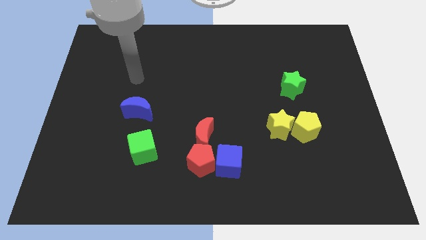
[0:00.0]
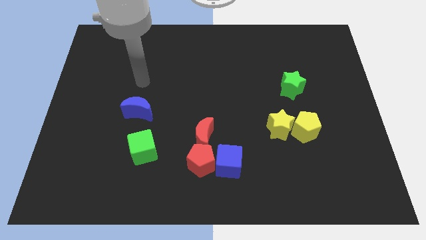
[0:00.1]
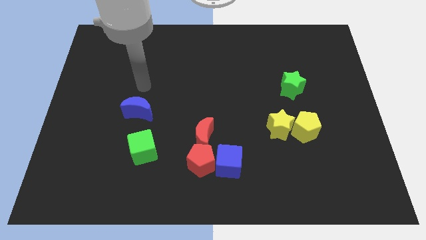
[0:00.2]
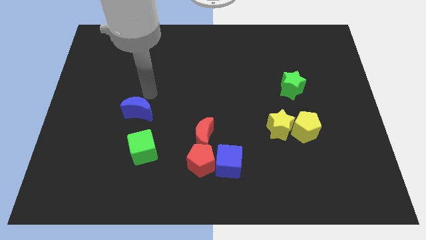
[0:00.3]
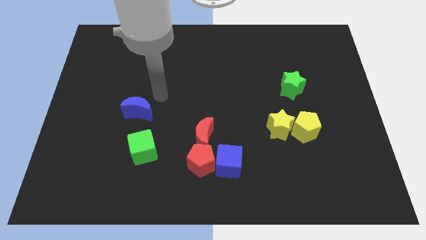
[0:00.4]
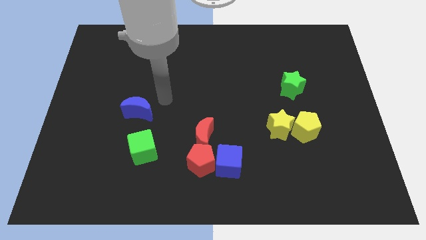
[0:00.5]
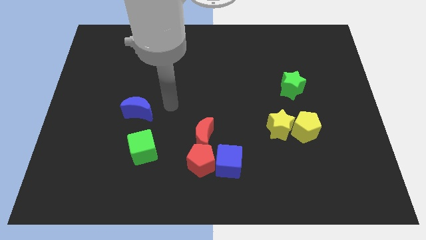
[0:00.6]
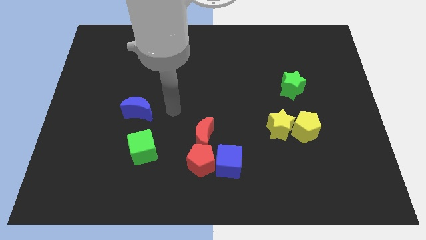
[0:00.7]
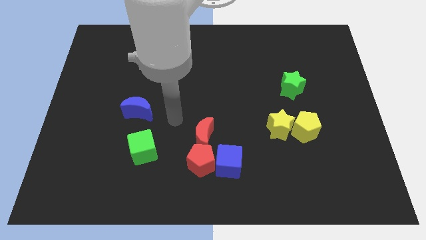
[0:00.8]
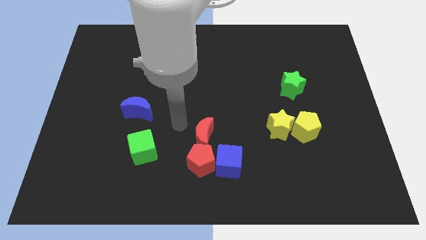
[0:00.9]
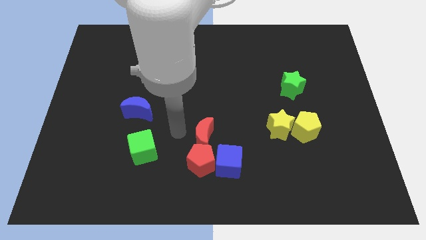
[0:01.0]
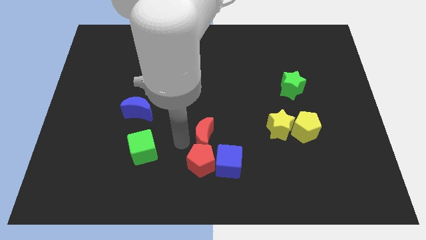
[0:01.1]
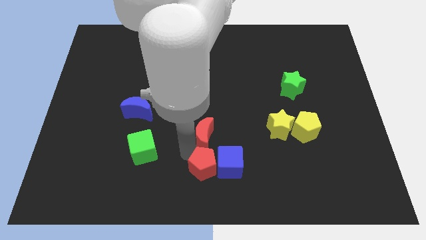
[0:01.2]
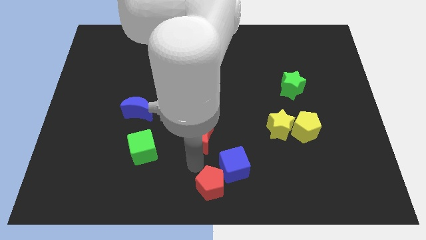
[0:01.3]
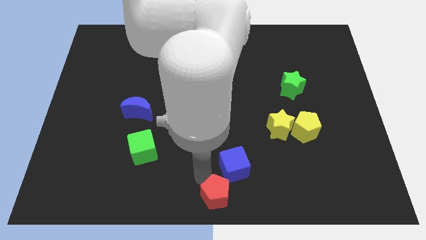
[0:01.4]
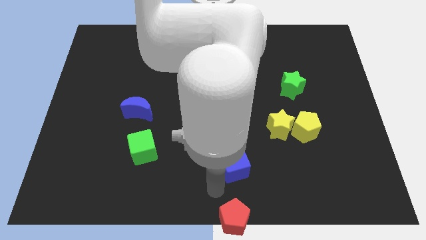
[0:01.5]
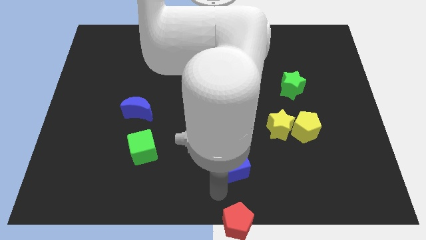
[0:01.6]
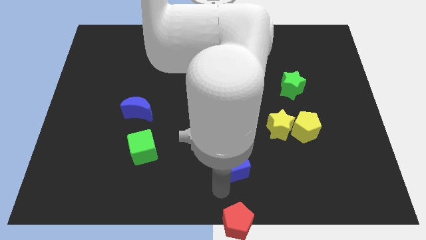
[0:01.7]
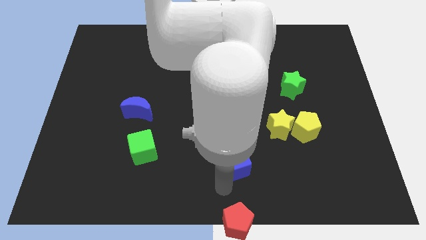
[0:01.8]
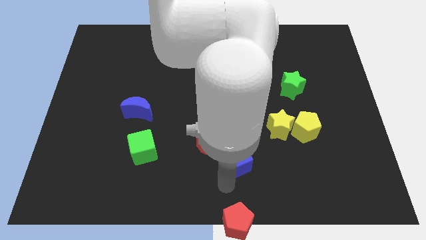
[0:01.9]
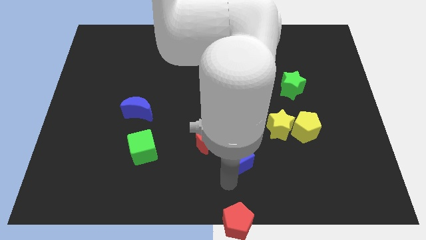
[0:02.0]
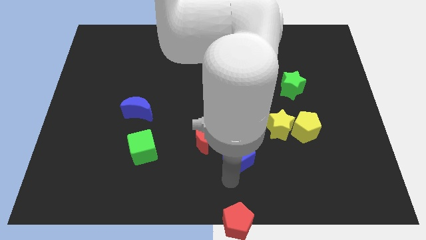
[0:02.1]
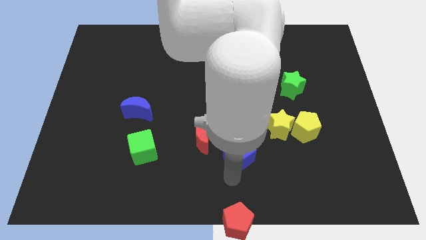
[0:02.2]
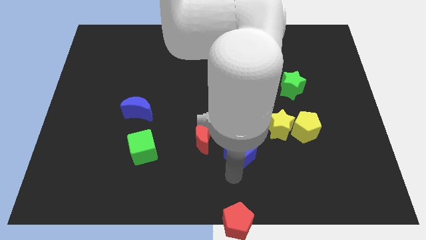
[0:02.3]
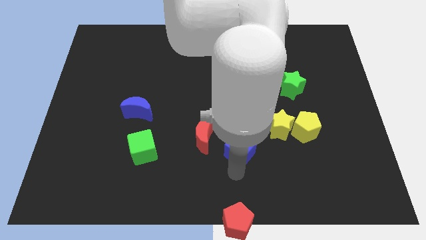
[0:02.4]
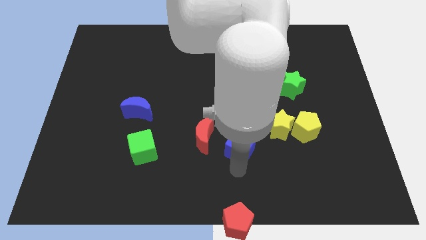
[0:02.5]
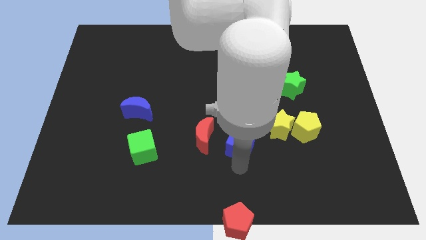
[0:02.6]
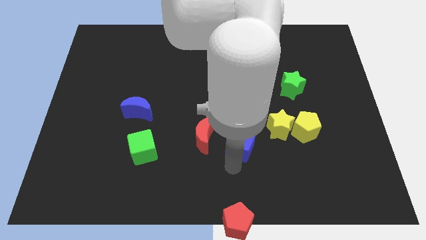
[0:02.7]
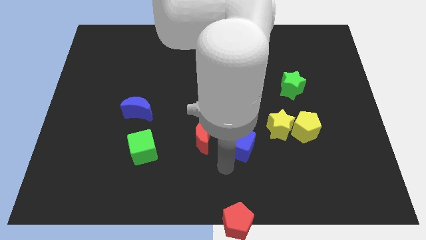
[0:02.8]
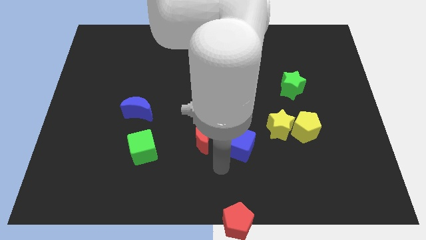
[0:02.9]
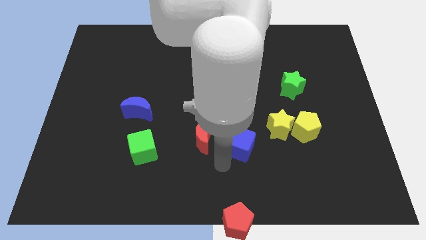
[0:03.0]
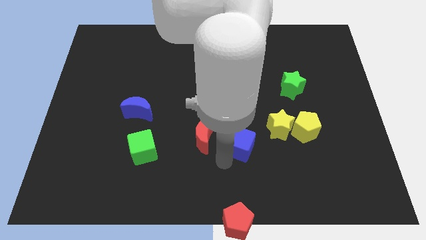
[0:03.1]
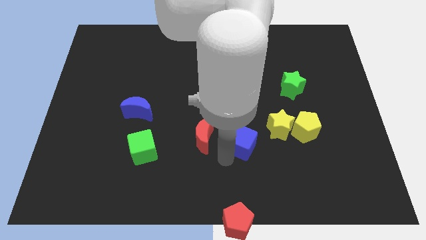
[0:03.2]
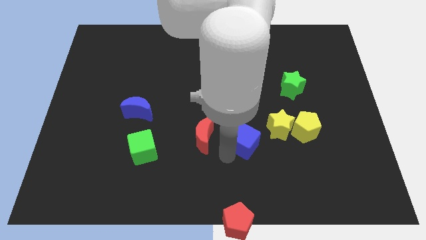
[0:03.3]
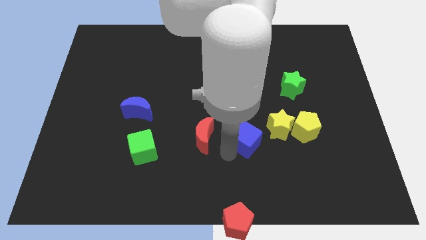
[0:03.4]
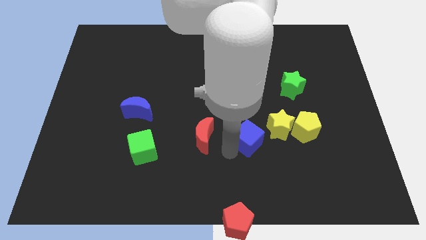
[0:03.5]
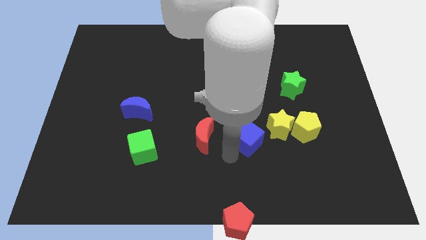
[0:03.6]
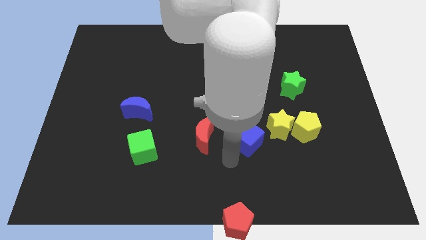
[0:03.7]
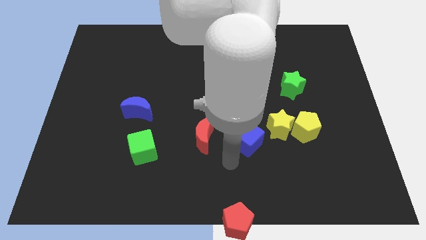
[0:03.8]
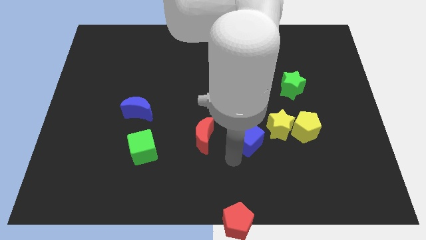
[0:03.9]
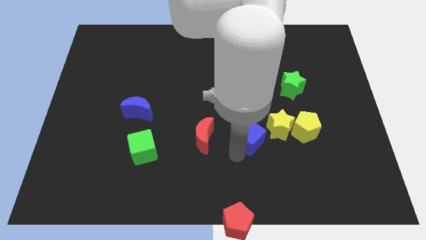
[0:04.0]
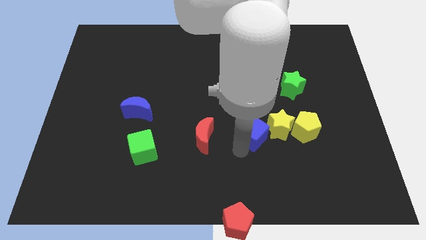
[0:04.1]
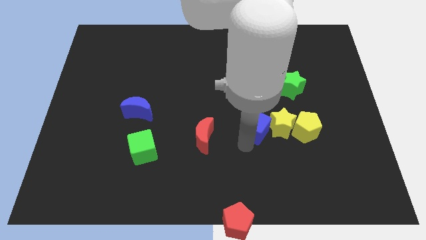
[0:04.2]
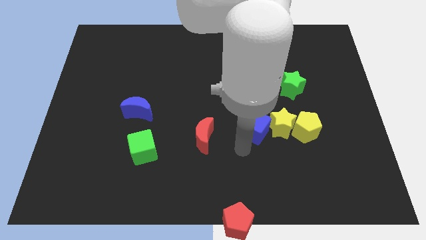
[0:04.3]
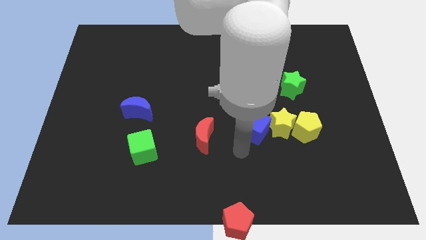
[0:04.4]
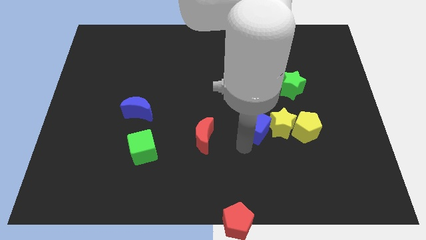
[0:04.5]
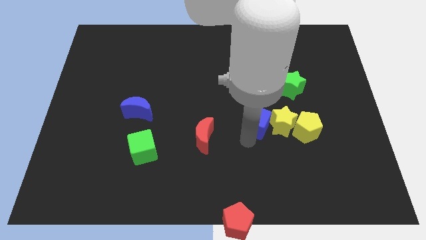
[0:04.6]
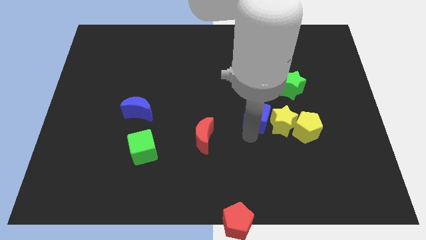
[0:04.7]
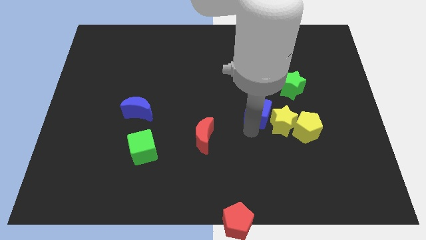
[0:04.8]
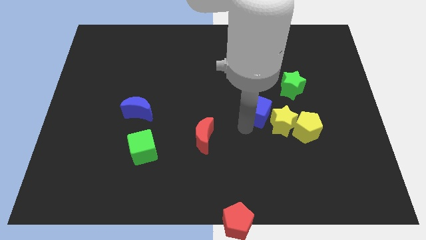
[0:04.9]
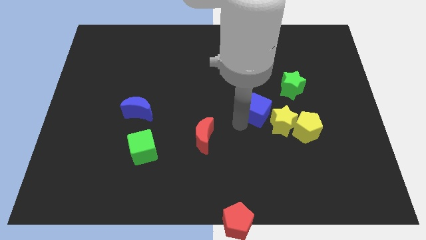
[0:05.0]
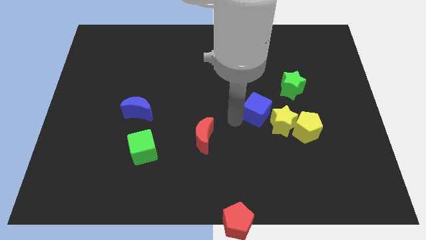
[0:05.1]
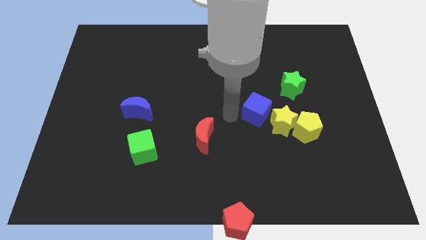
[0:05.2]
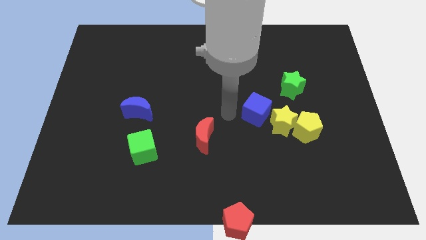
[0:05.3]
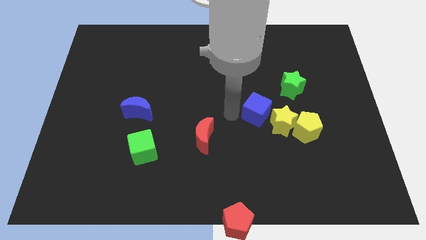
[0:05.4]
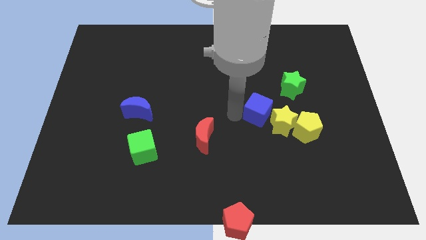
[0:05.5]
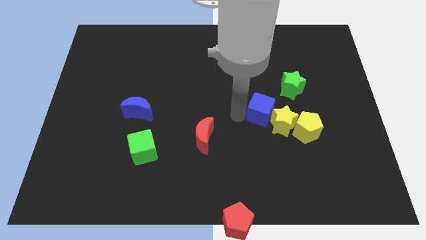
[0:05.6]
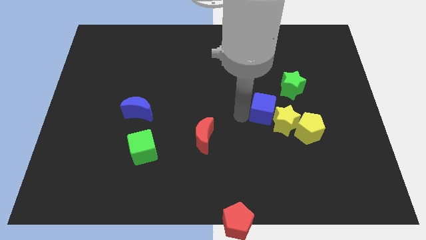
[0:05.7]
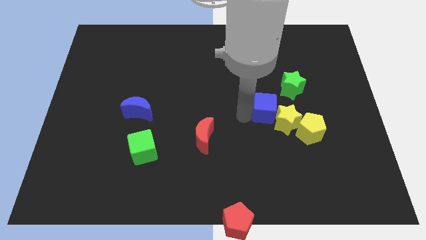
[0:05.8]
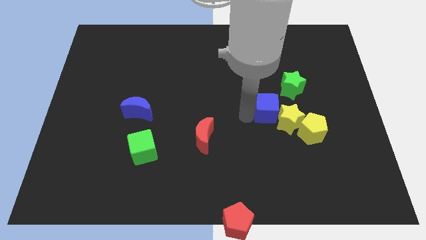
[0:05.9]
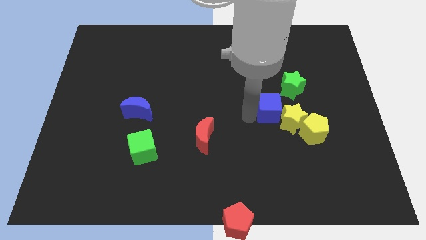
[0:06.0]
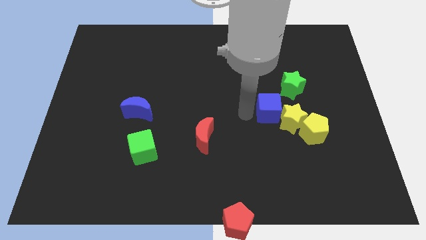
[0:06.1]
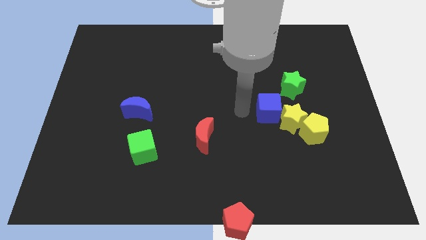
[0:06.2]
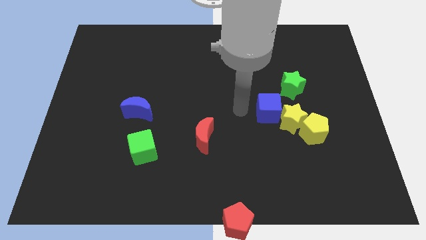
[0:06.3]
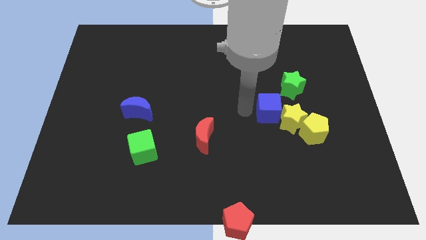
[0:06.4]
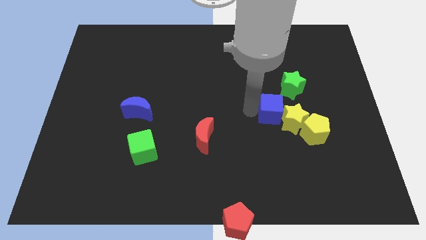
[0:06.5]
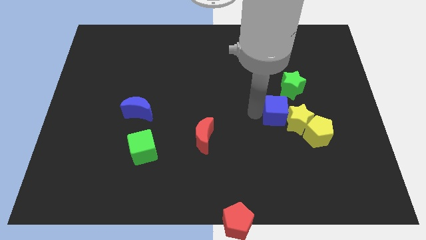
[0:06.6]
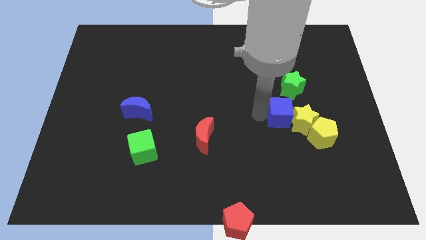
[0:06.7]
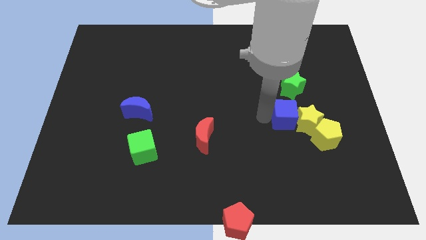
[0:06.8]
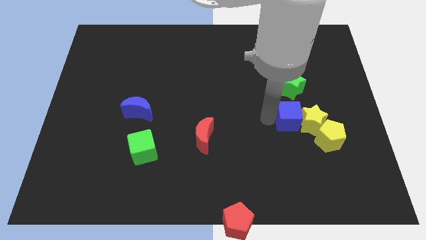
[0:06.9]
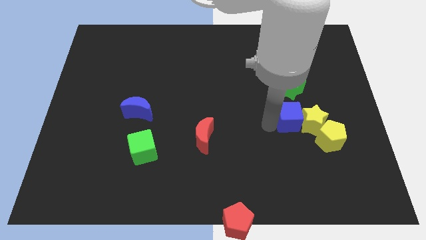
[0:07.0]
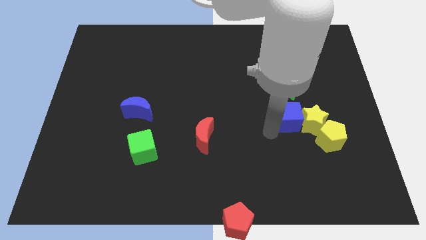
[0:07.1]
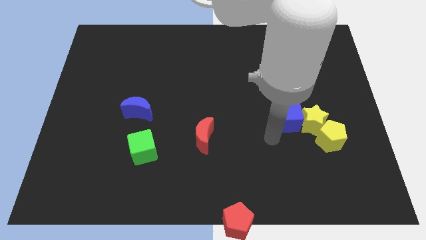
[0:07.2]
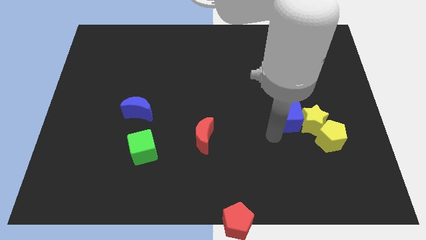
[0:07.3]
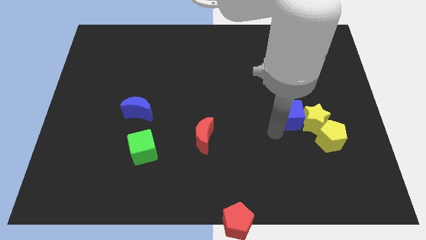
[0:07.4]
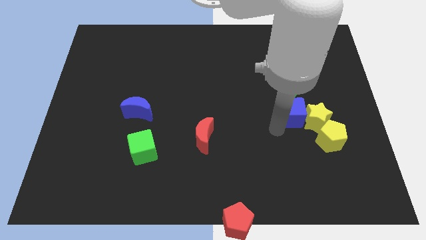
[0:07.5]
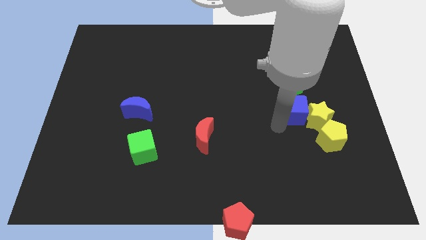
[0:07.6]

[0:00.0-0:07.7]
slide the blue cube up and to the right

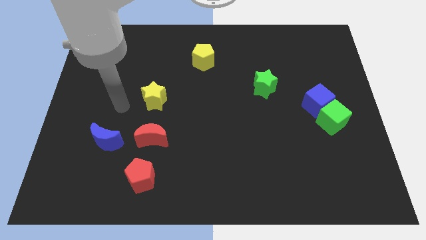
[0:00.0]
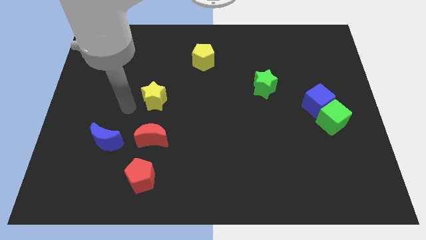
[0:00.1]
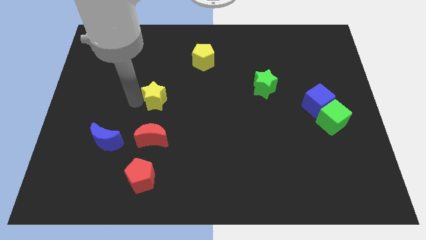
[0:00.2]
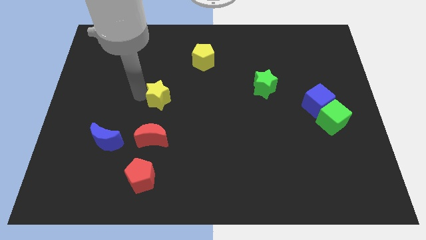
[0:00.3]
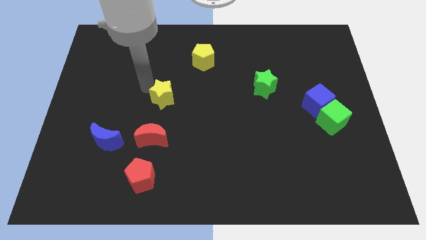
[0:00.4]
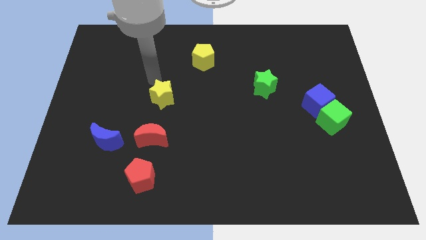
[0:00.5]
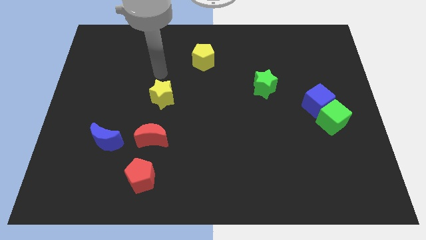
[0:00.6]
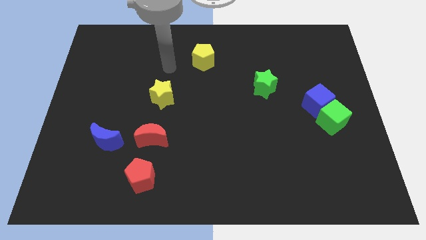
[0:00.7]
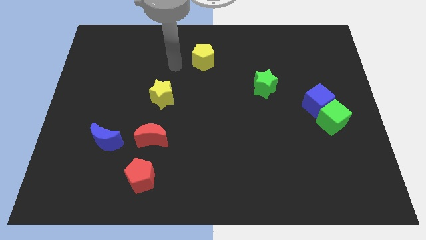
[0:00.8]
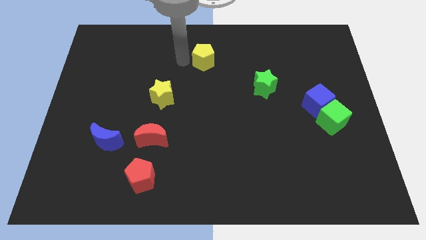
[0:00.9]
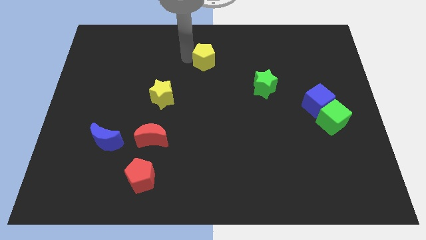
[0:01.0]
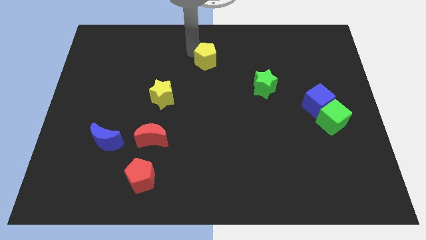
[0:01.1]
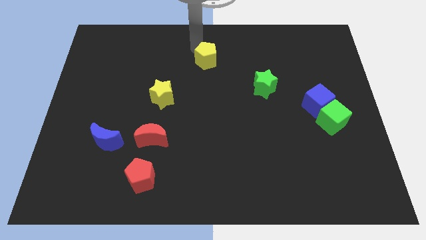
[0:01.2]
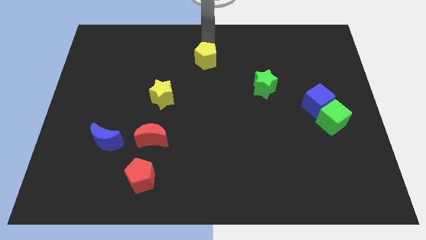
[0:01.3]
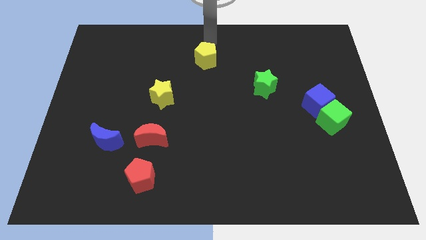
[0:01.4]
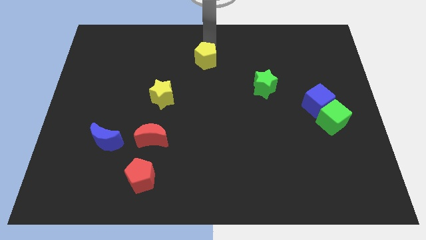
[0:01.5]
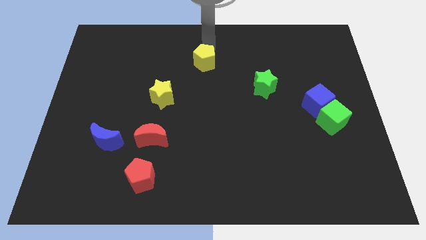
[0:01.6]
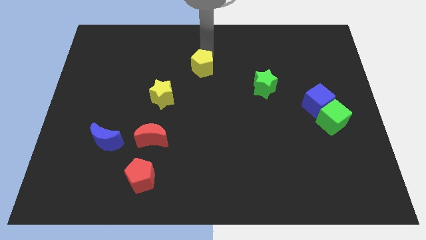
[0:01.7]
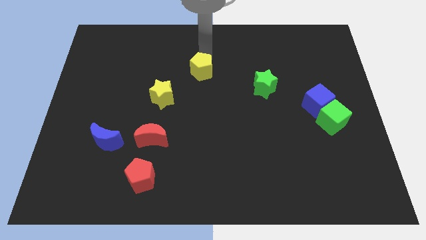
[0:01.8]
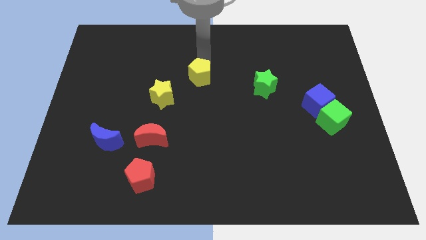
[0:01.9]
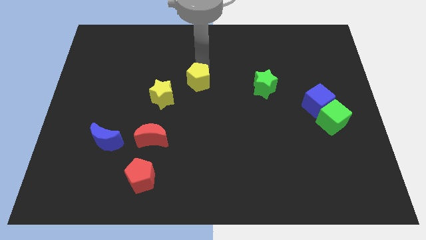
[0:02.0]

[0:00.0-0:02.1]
push the yellow pentagon slightly downwards
